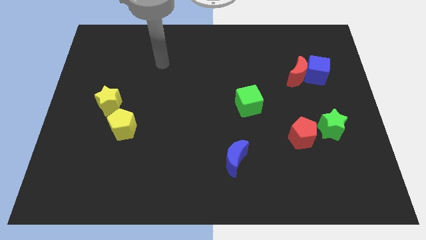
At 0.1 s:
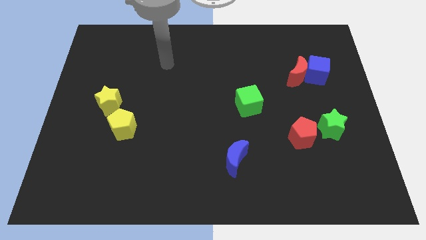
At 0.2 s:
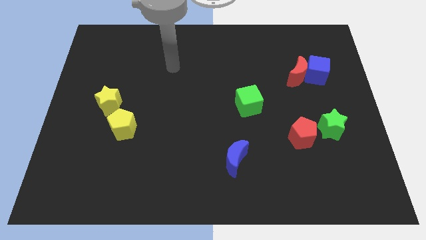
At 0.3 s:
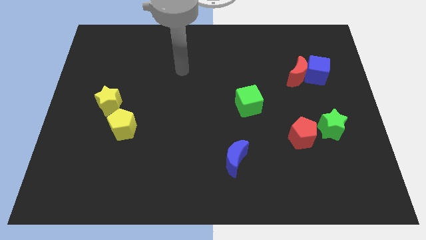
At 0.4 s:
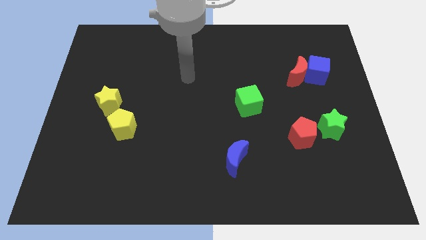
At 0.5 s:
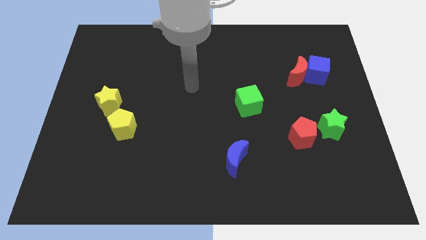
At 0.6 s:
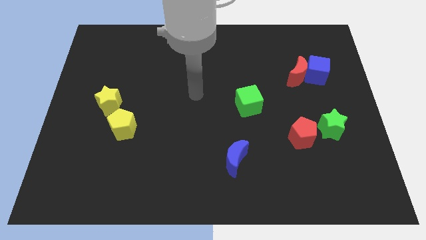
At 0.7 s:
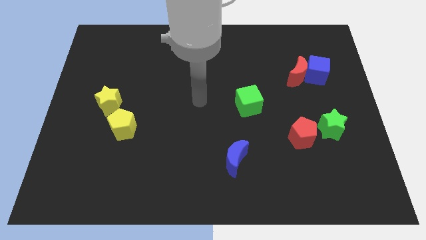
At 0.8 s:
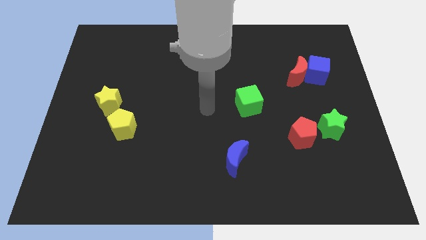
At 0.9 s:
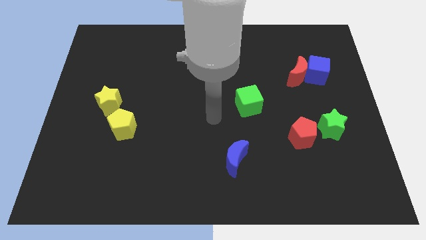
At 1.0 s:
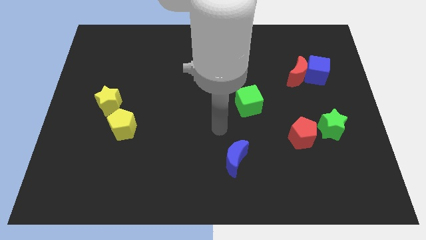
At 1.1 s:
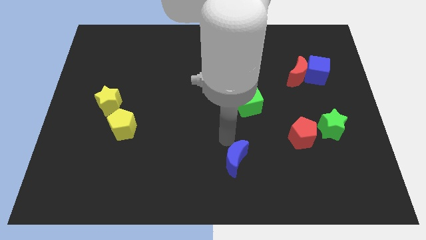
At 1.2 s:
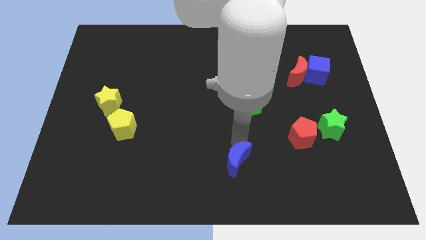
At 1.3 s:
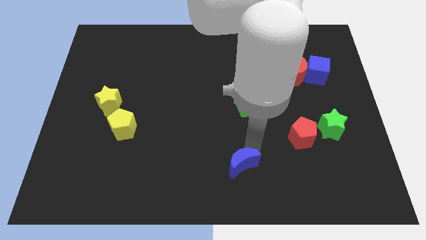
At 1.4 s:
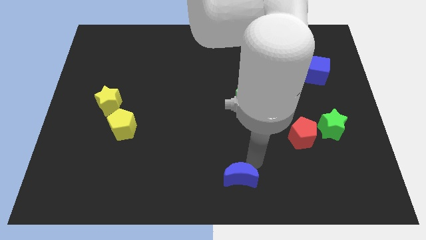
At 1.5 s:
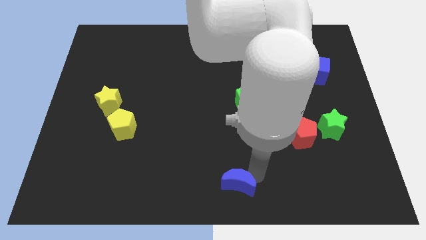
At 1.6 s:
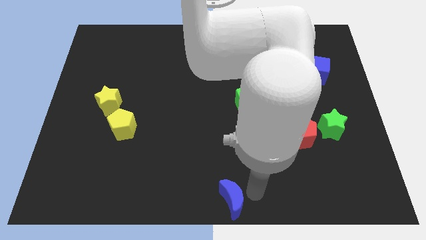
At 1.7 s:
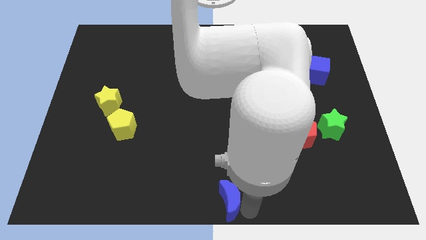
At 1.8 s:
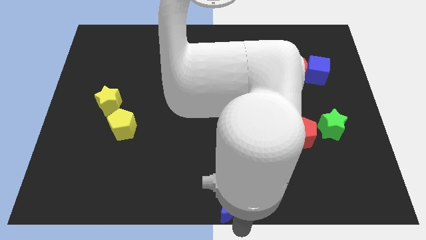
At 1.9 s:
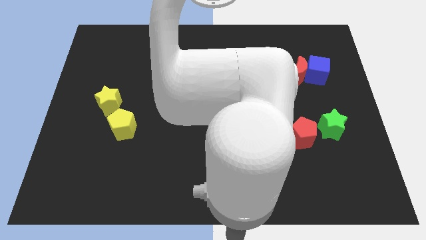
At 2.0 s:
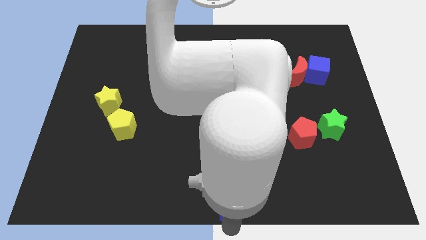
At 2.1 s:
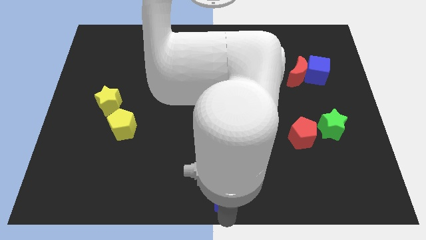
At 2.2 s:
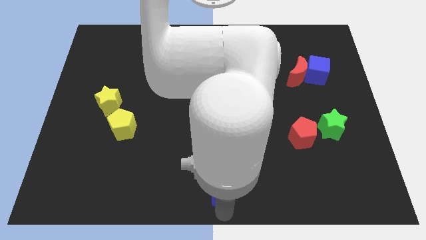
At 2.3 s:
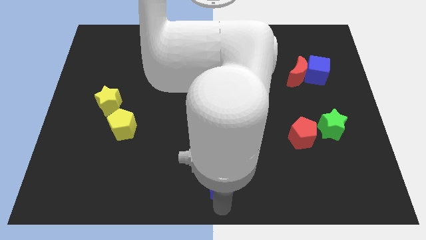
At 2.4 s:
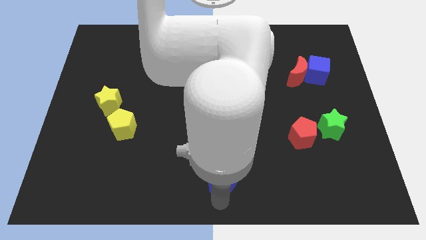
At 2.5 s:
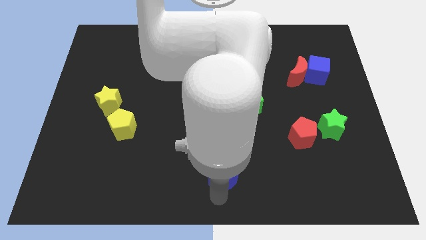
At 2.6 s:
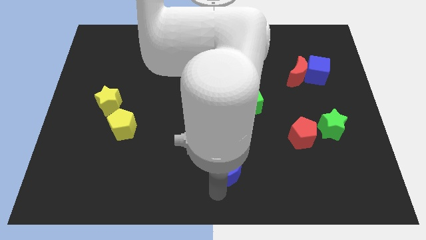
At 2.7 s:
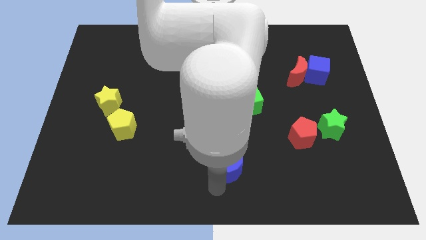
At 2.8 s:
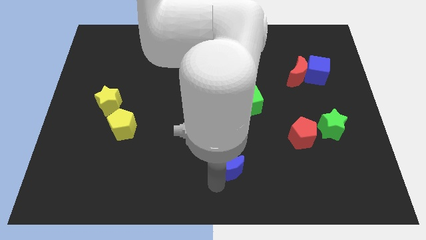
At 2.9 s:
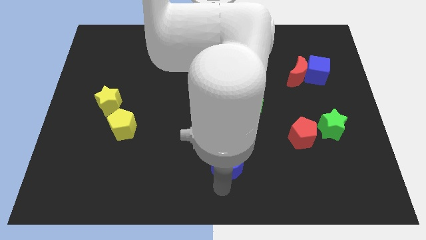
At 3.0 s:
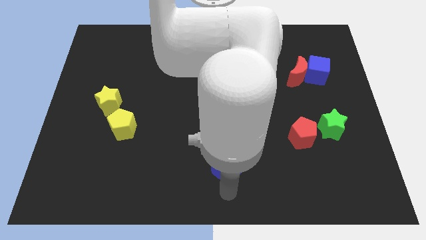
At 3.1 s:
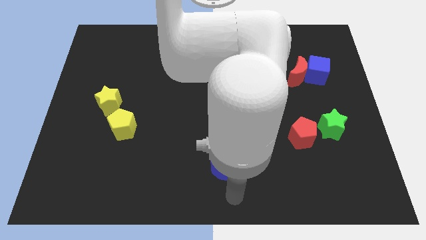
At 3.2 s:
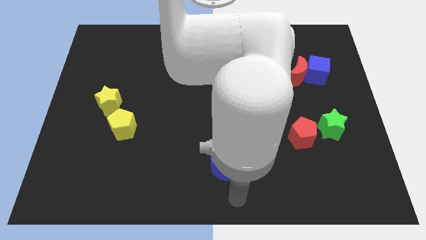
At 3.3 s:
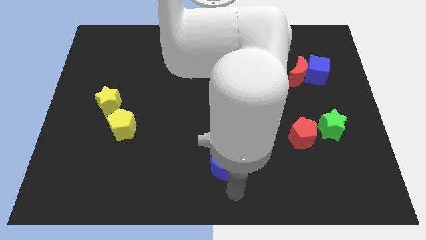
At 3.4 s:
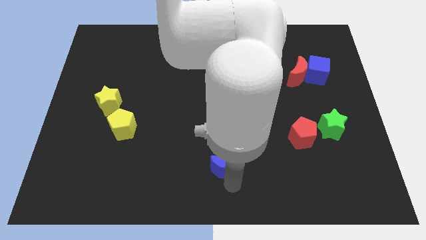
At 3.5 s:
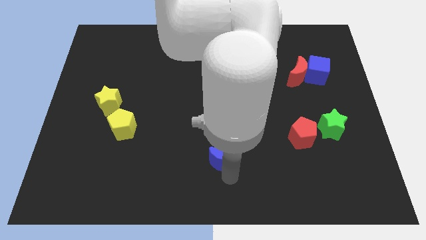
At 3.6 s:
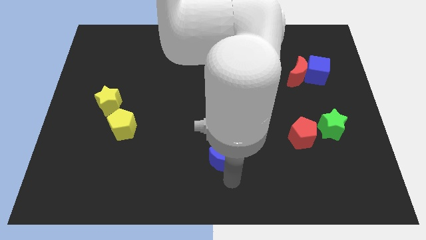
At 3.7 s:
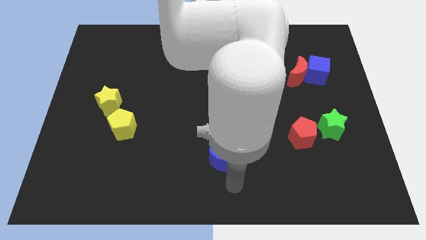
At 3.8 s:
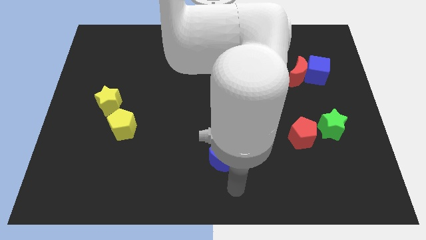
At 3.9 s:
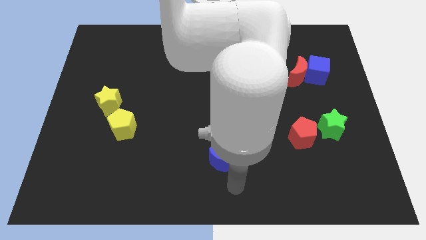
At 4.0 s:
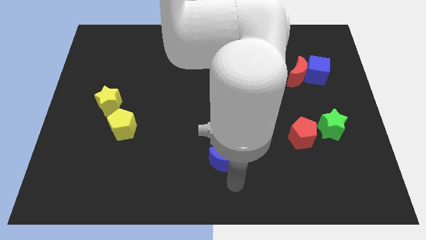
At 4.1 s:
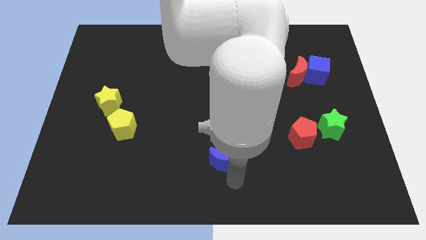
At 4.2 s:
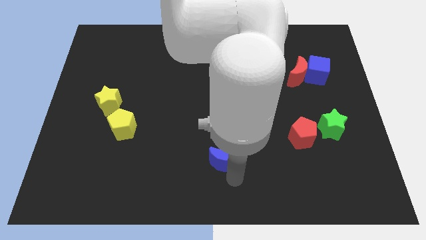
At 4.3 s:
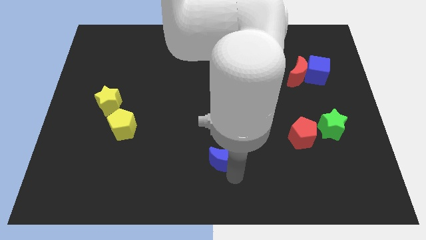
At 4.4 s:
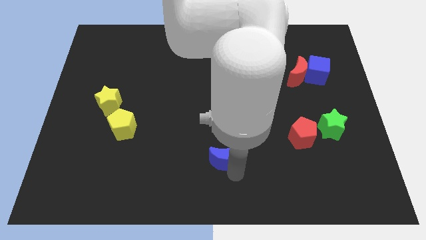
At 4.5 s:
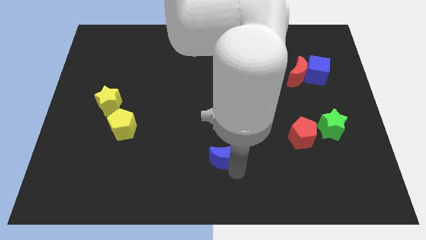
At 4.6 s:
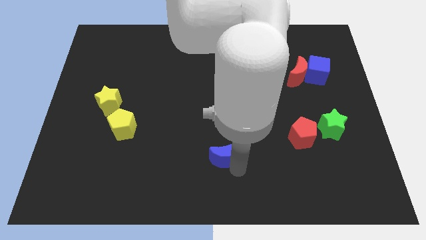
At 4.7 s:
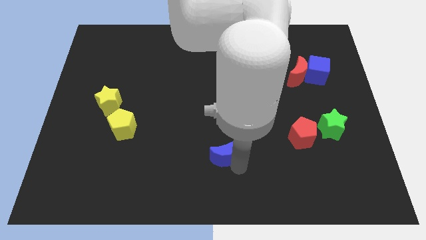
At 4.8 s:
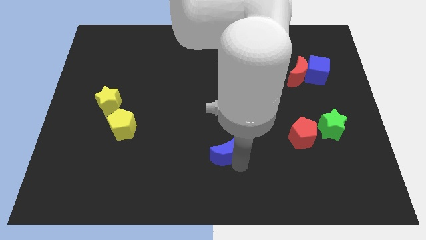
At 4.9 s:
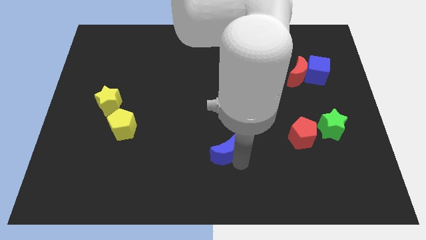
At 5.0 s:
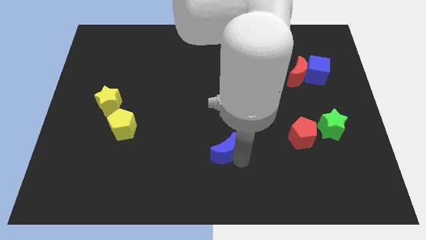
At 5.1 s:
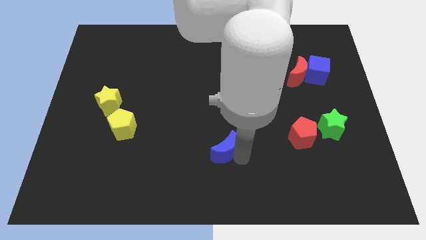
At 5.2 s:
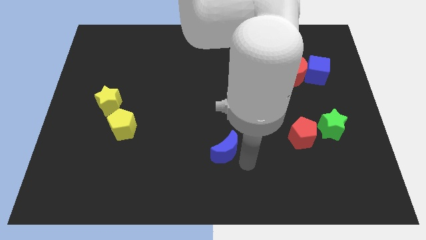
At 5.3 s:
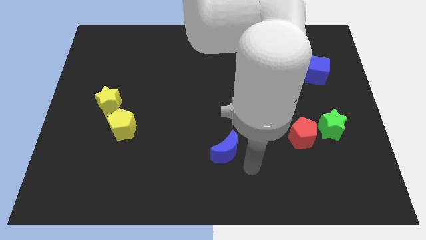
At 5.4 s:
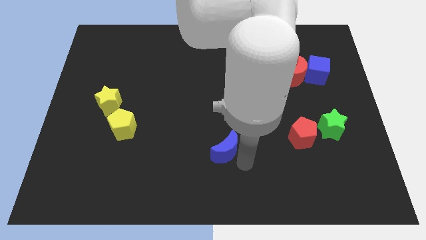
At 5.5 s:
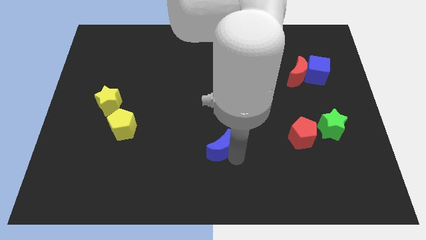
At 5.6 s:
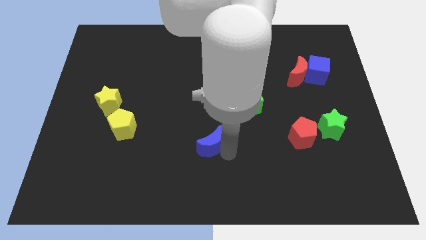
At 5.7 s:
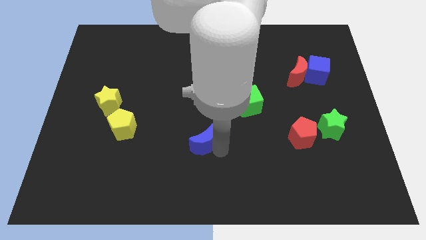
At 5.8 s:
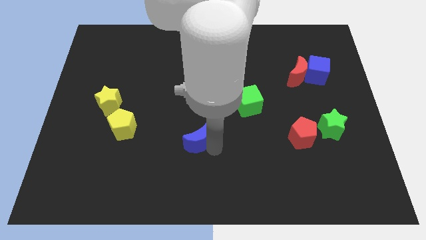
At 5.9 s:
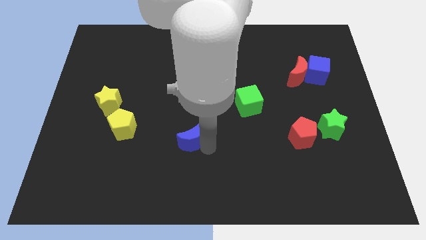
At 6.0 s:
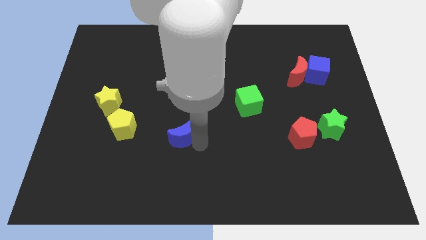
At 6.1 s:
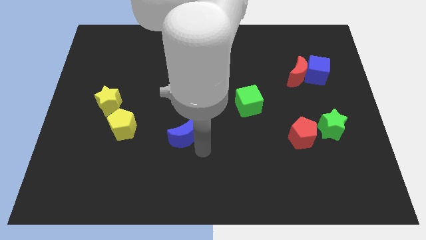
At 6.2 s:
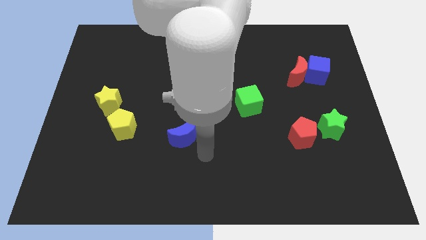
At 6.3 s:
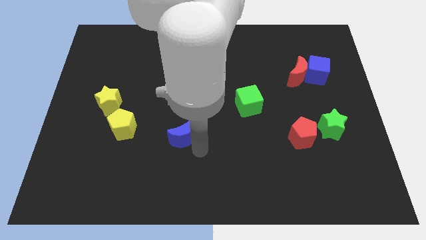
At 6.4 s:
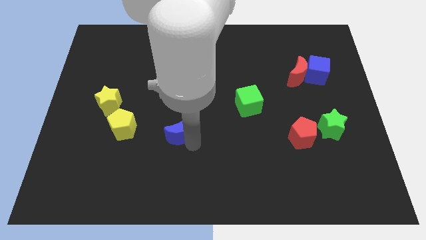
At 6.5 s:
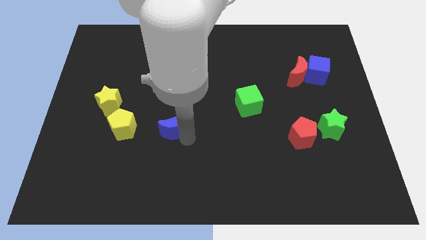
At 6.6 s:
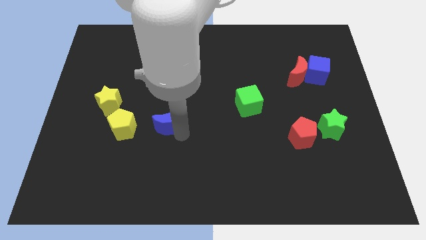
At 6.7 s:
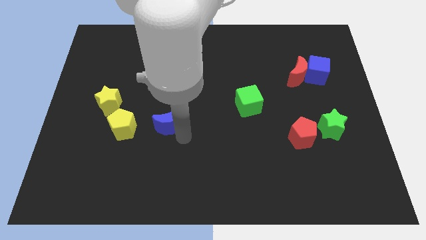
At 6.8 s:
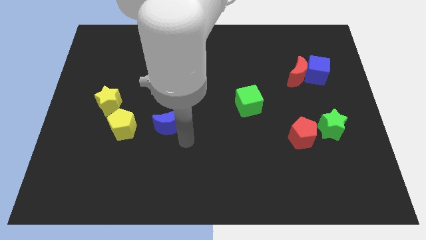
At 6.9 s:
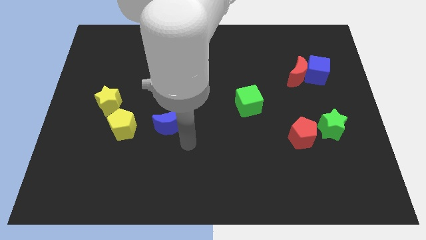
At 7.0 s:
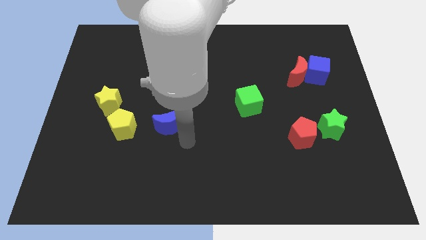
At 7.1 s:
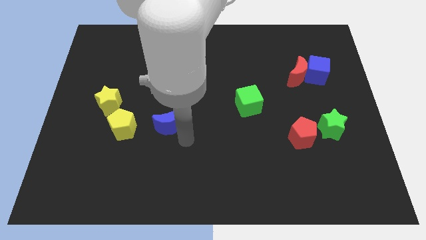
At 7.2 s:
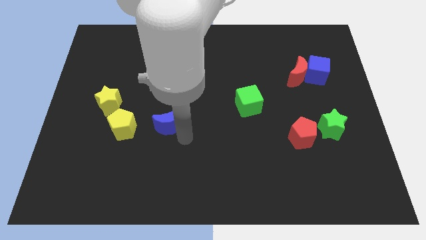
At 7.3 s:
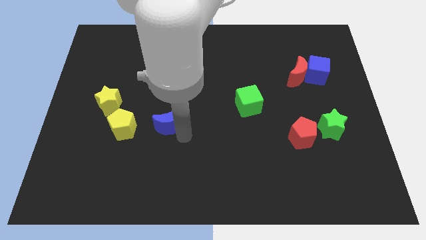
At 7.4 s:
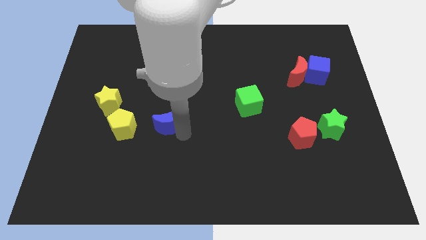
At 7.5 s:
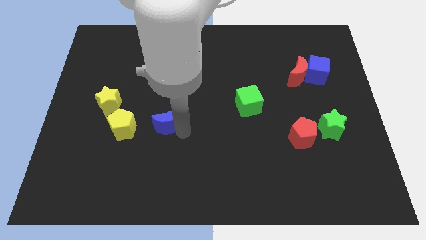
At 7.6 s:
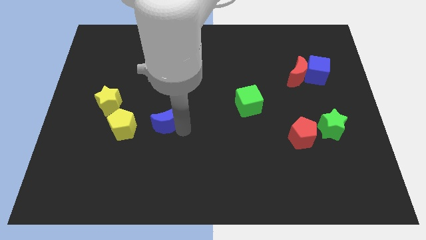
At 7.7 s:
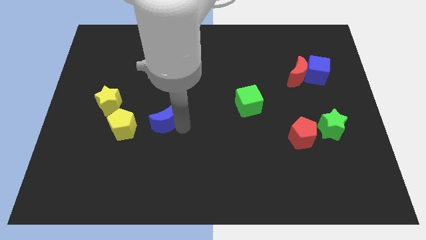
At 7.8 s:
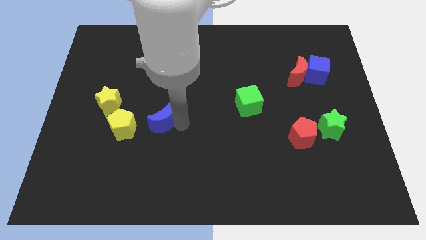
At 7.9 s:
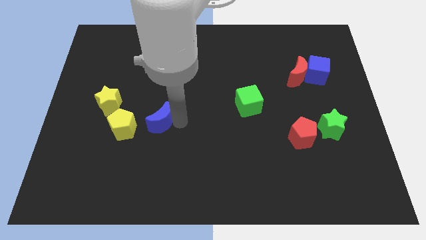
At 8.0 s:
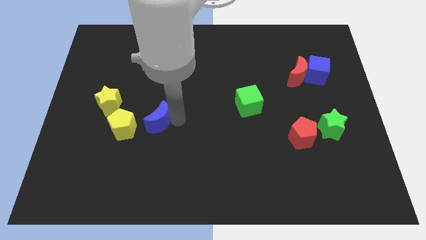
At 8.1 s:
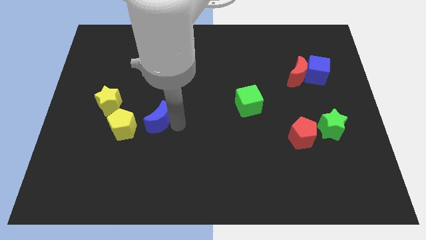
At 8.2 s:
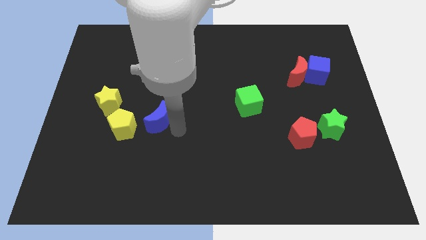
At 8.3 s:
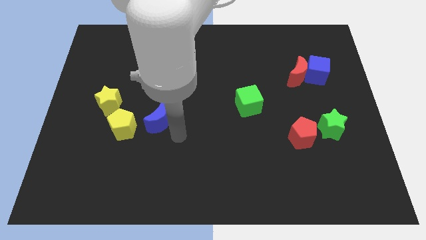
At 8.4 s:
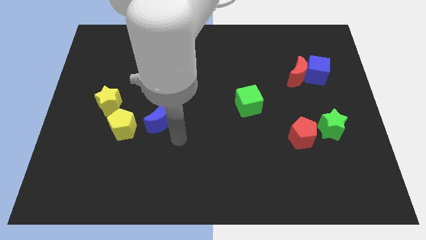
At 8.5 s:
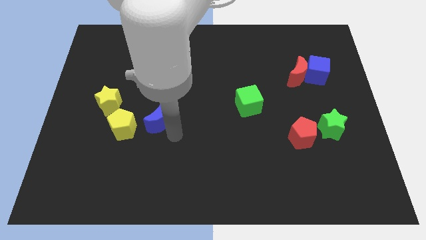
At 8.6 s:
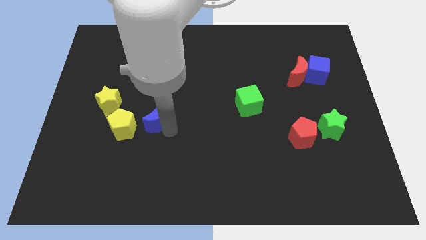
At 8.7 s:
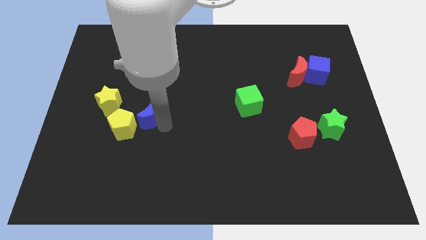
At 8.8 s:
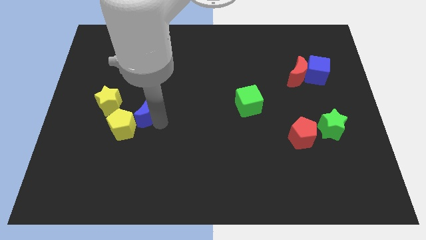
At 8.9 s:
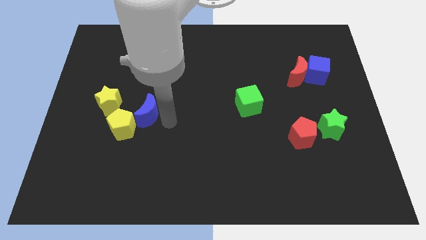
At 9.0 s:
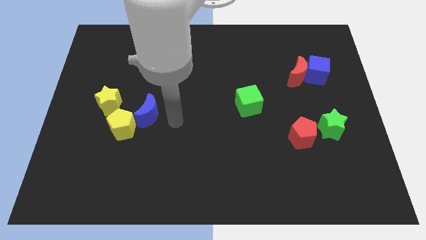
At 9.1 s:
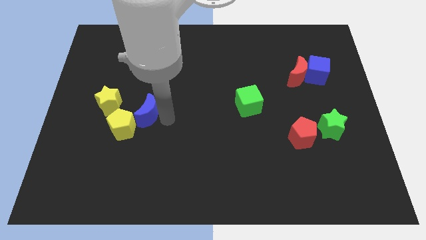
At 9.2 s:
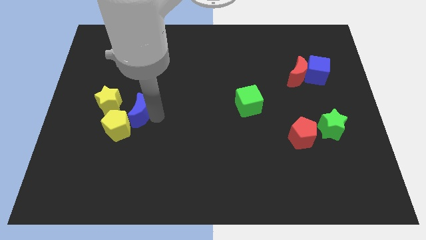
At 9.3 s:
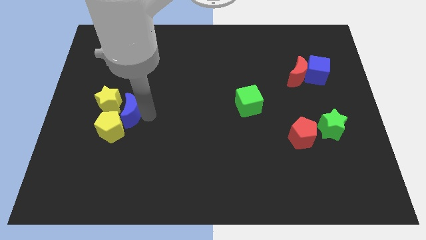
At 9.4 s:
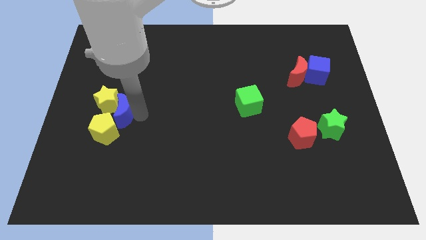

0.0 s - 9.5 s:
put the blue moon close to the yellow star
